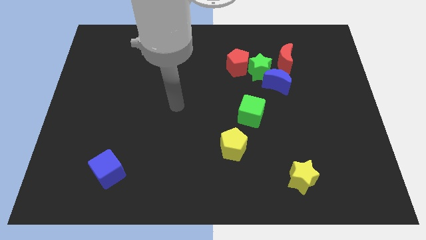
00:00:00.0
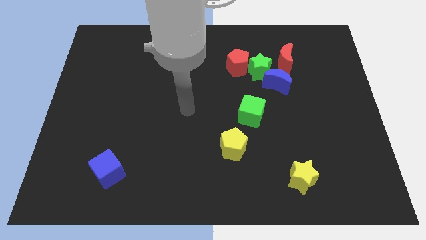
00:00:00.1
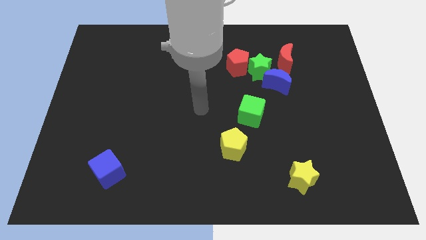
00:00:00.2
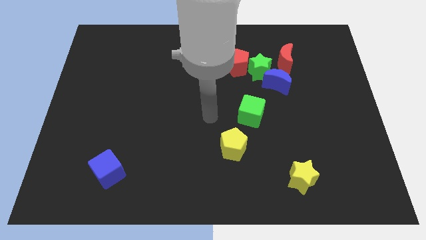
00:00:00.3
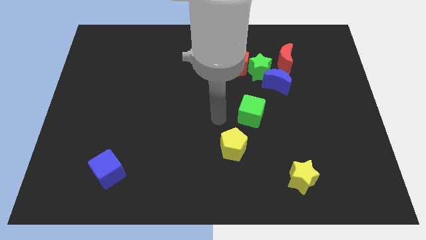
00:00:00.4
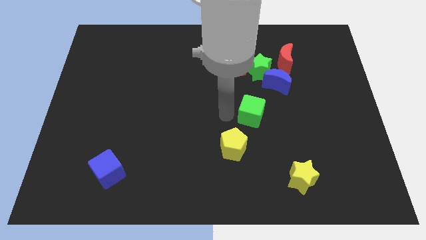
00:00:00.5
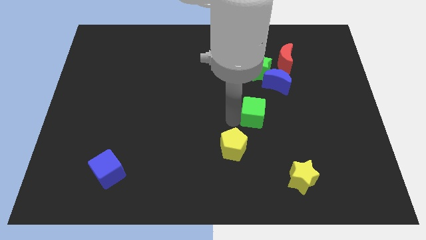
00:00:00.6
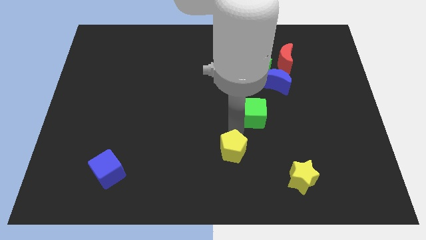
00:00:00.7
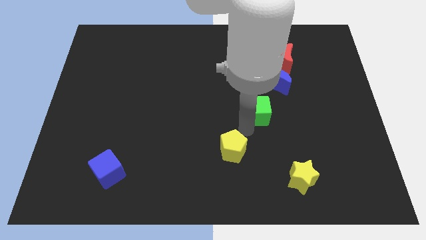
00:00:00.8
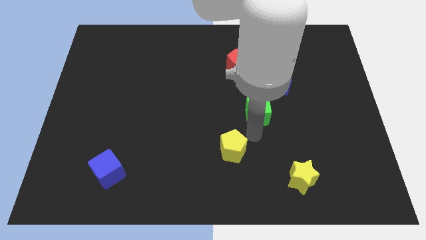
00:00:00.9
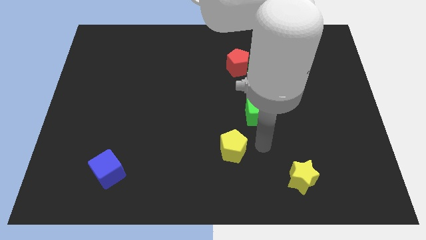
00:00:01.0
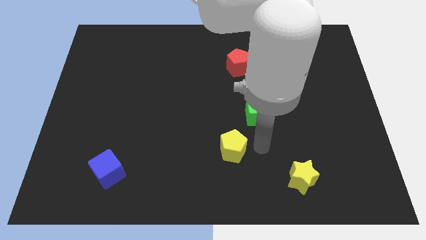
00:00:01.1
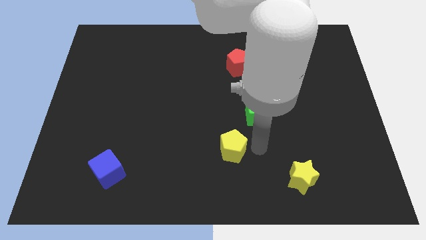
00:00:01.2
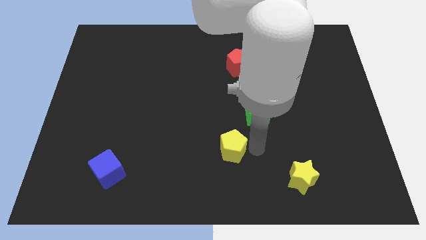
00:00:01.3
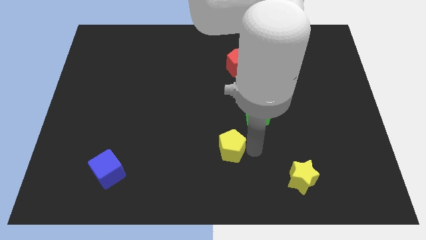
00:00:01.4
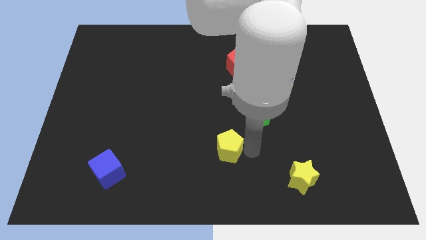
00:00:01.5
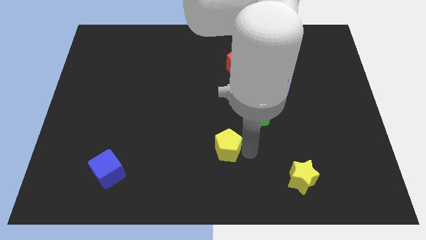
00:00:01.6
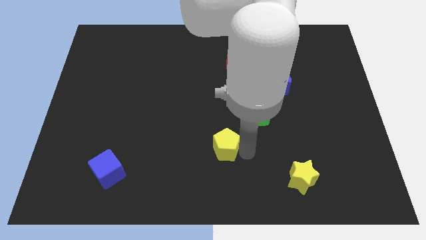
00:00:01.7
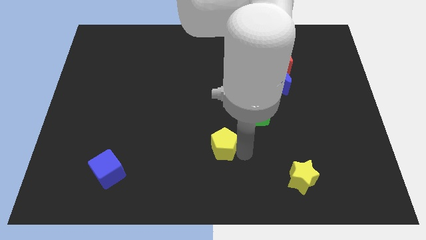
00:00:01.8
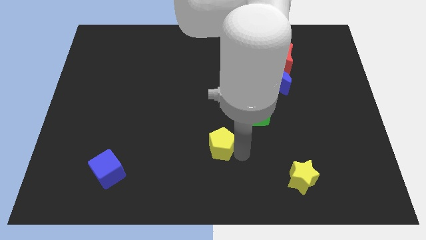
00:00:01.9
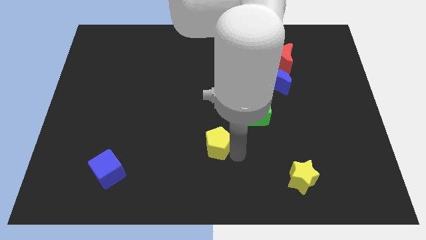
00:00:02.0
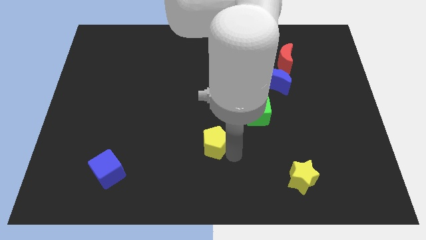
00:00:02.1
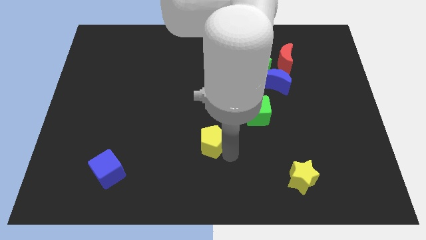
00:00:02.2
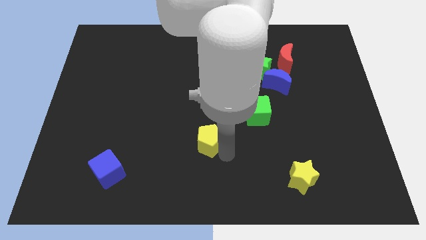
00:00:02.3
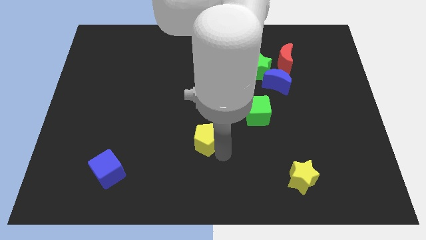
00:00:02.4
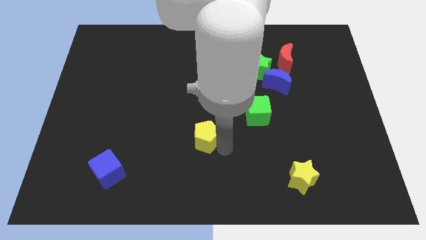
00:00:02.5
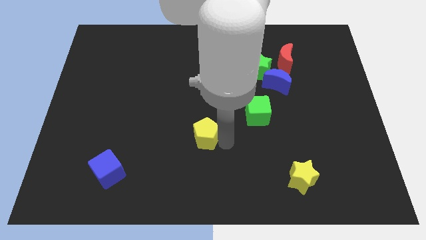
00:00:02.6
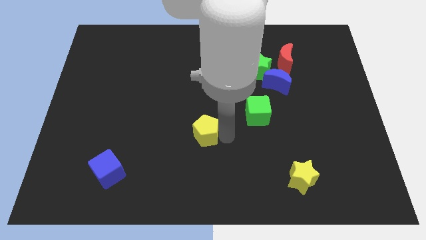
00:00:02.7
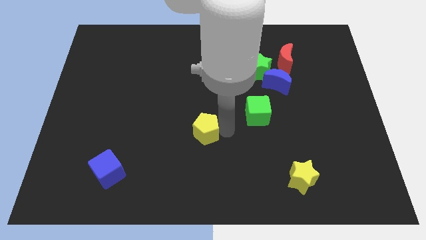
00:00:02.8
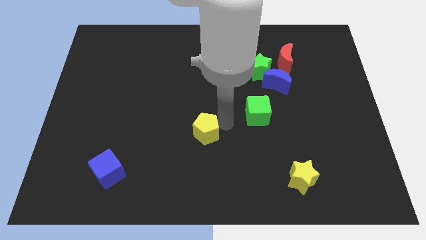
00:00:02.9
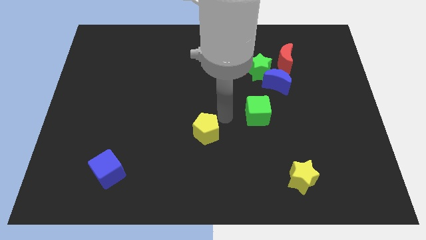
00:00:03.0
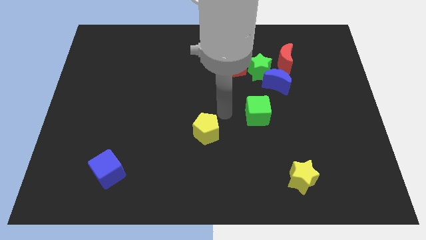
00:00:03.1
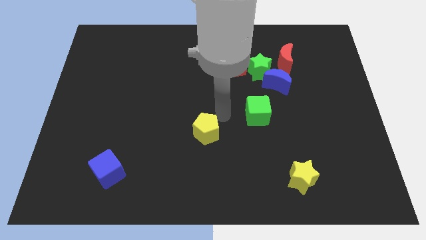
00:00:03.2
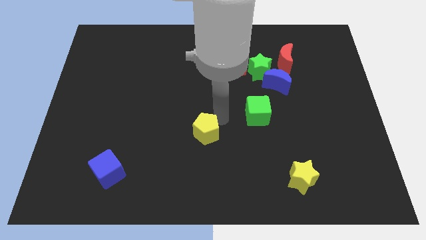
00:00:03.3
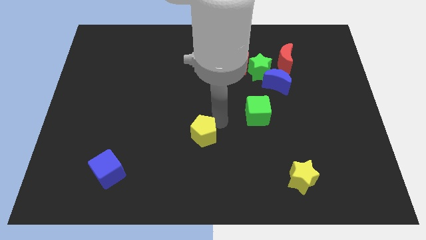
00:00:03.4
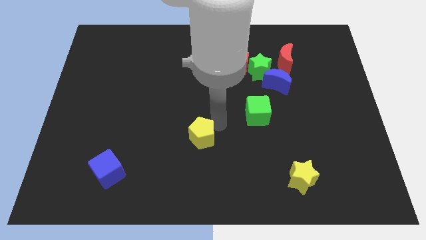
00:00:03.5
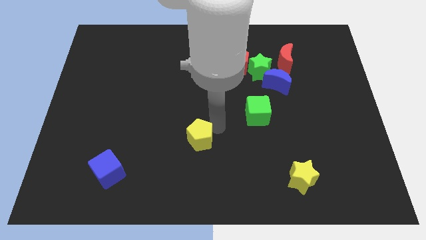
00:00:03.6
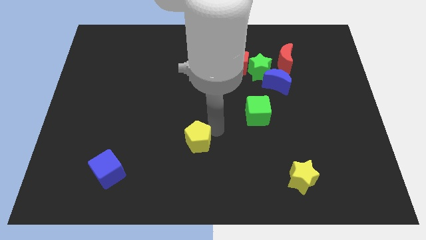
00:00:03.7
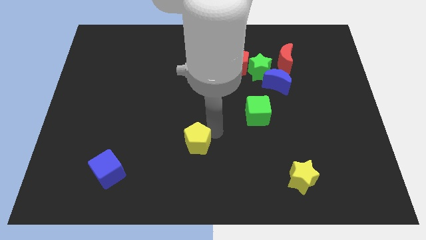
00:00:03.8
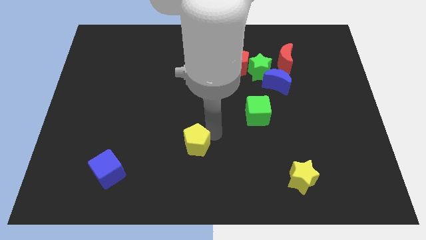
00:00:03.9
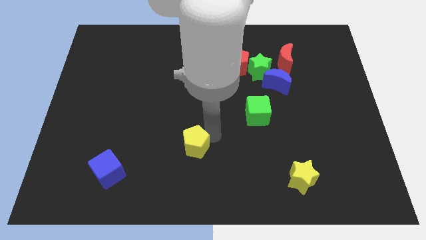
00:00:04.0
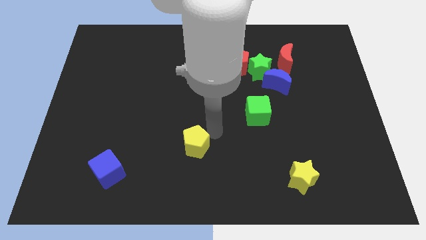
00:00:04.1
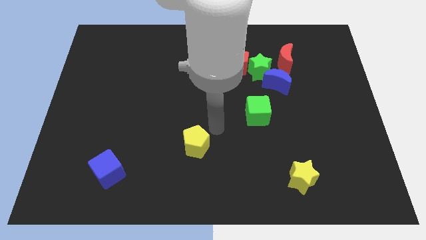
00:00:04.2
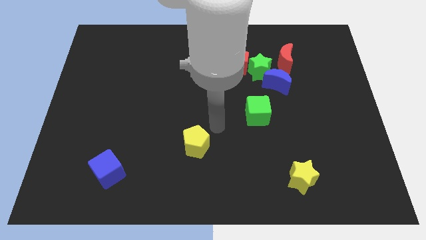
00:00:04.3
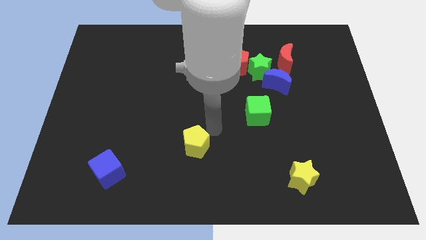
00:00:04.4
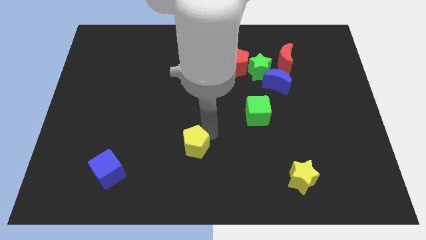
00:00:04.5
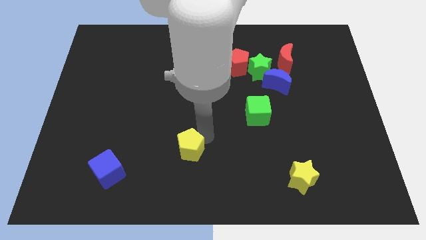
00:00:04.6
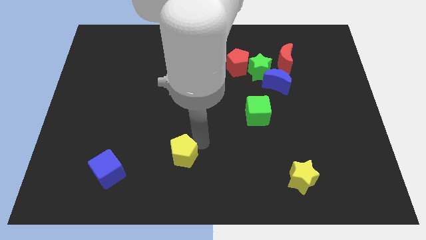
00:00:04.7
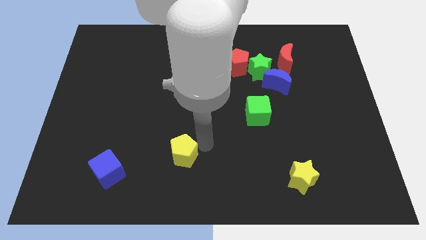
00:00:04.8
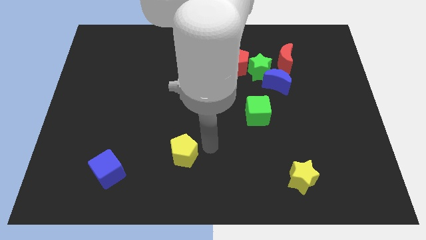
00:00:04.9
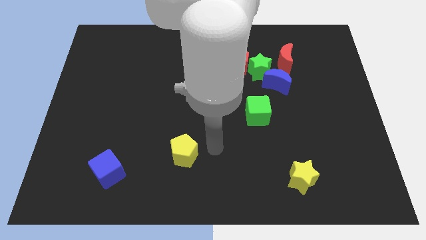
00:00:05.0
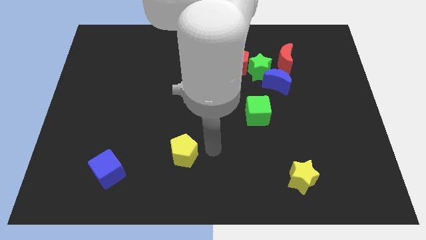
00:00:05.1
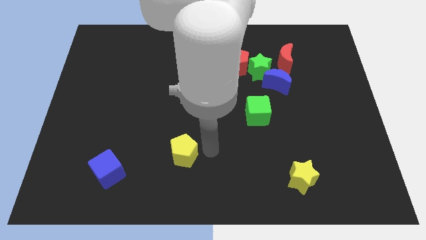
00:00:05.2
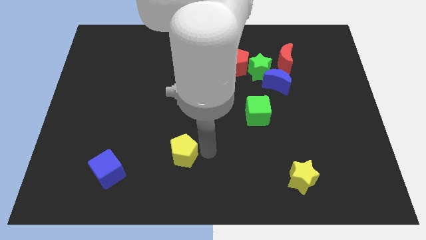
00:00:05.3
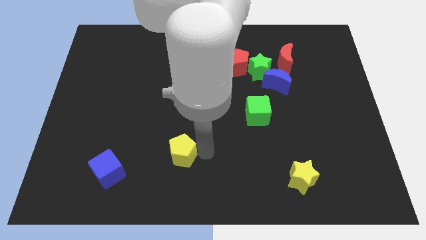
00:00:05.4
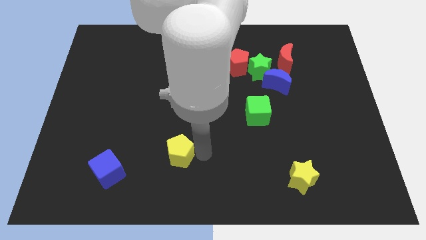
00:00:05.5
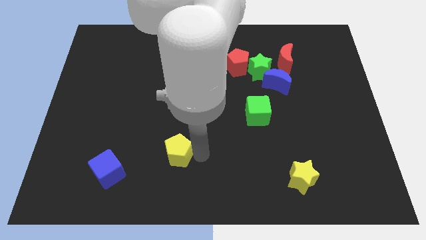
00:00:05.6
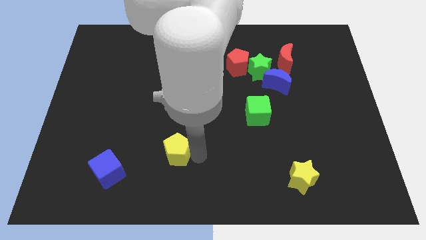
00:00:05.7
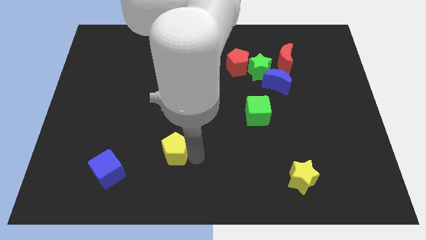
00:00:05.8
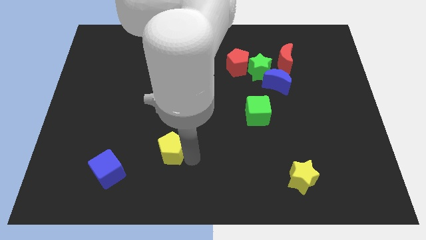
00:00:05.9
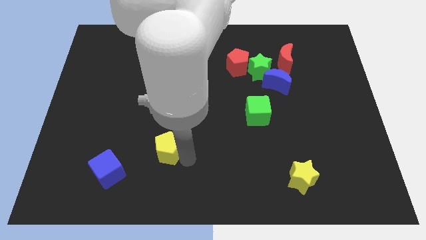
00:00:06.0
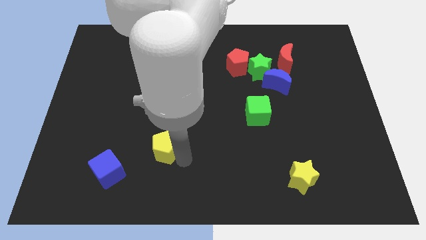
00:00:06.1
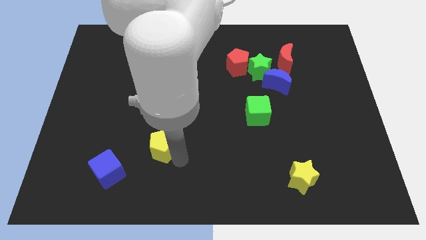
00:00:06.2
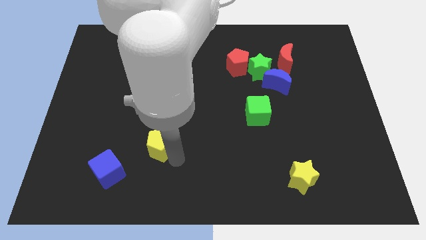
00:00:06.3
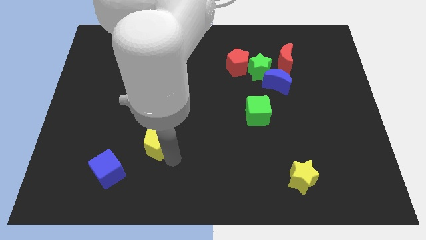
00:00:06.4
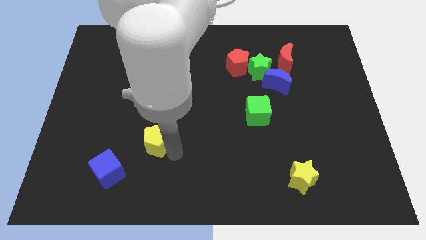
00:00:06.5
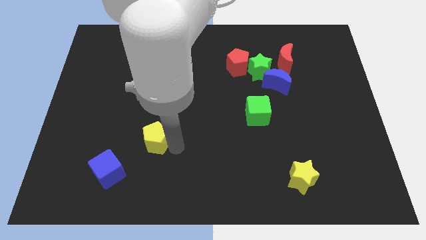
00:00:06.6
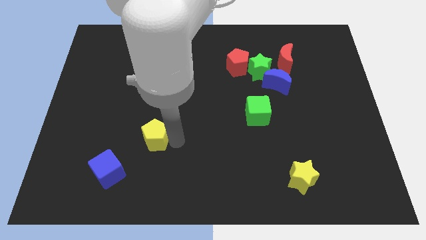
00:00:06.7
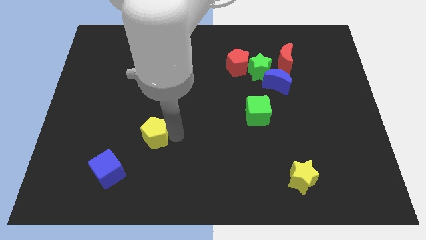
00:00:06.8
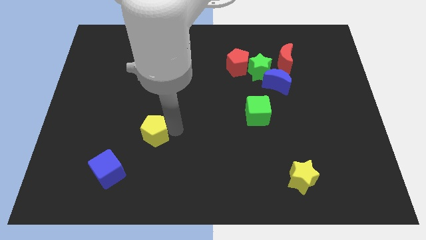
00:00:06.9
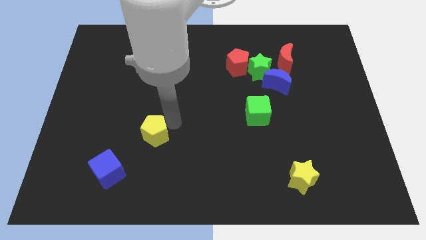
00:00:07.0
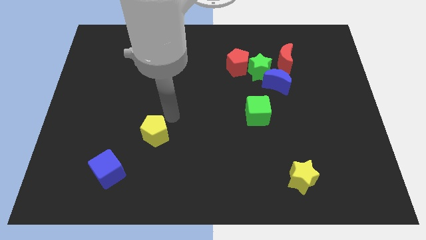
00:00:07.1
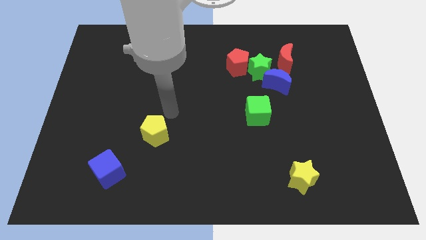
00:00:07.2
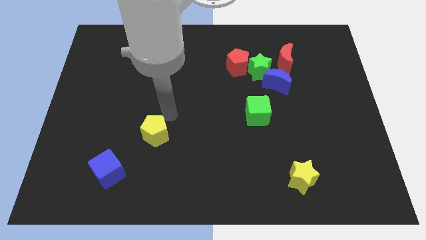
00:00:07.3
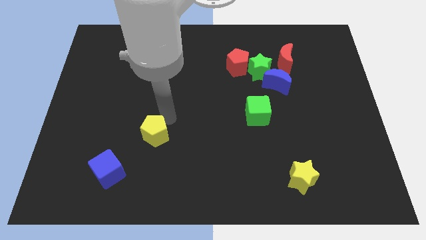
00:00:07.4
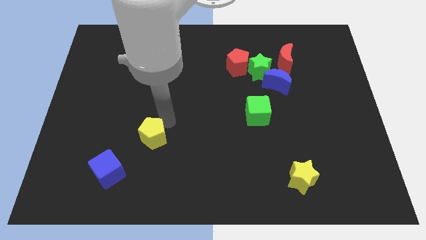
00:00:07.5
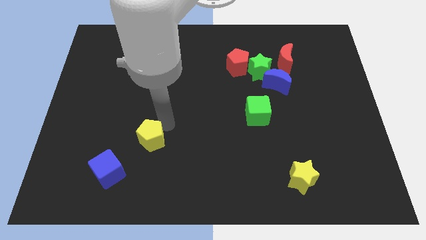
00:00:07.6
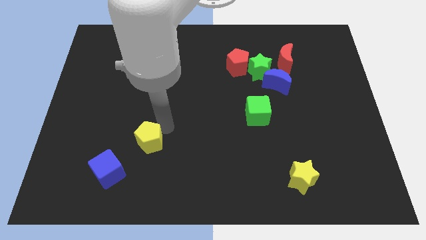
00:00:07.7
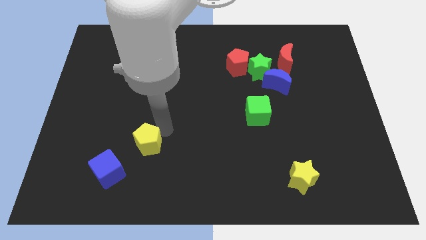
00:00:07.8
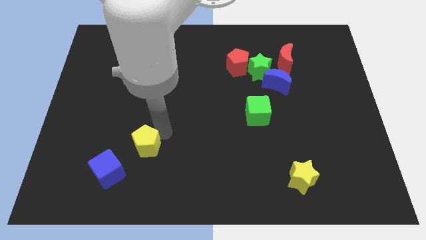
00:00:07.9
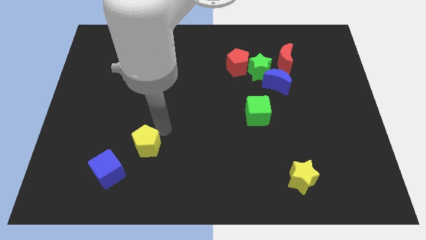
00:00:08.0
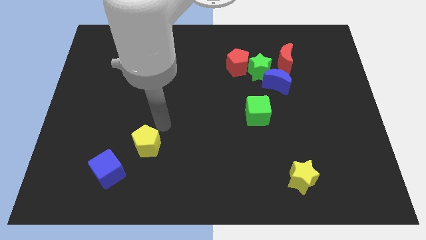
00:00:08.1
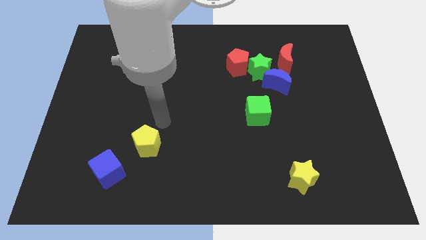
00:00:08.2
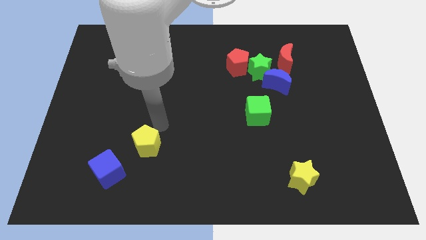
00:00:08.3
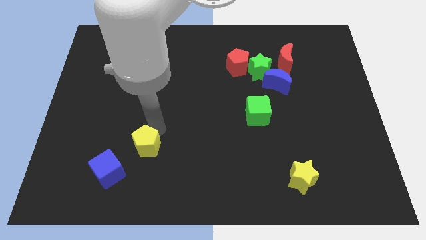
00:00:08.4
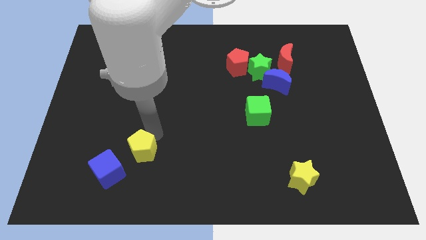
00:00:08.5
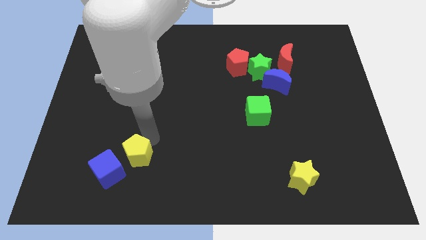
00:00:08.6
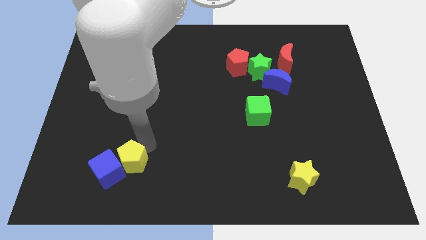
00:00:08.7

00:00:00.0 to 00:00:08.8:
put the yellow pentagon to the blue cube
